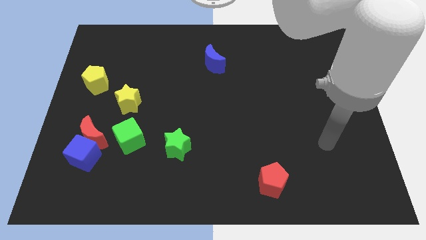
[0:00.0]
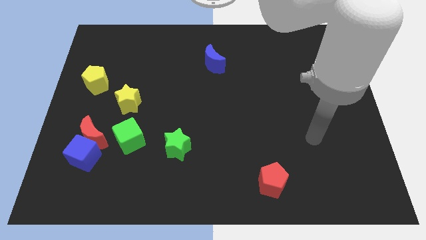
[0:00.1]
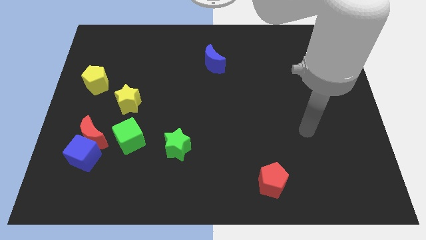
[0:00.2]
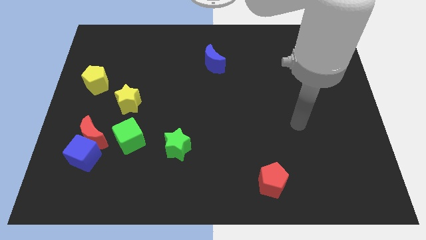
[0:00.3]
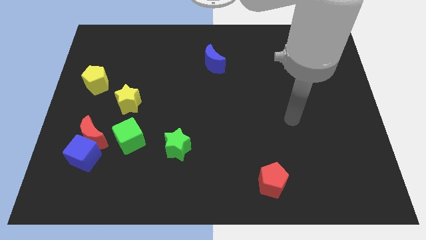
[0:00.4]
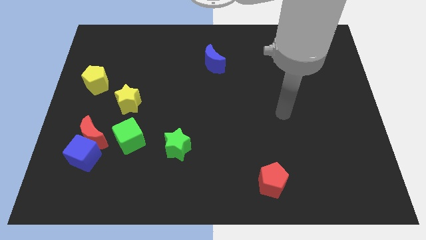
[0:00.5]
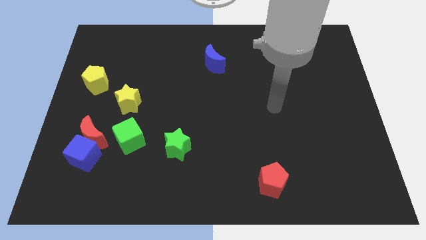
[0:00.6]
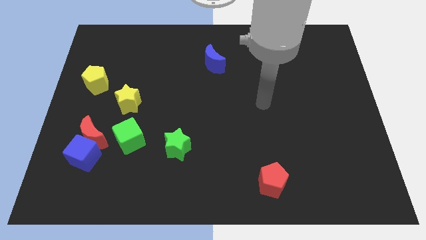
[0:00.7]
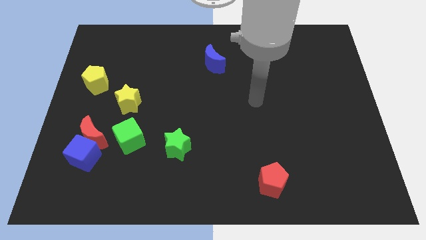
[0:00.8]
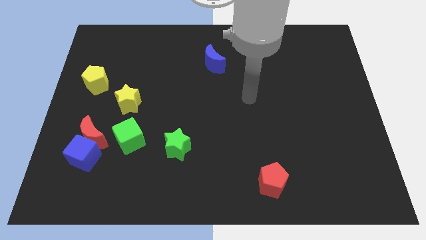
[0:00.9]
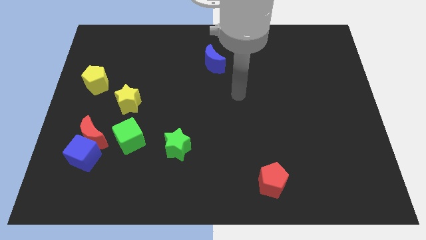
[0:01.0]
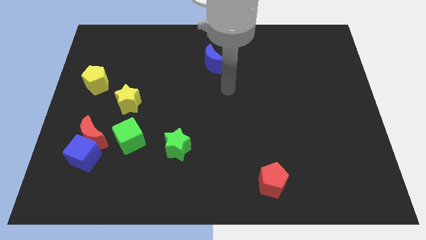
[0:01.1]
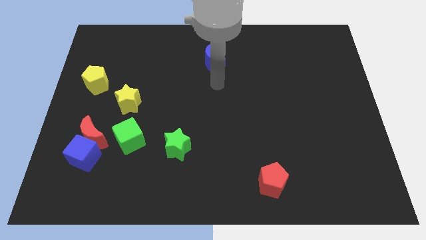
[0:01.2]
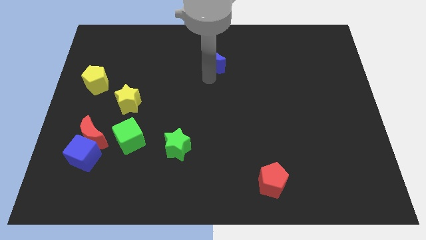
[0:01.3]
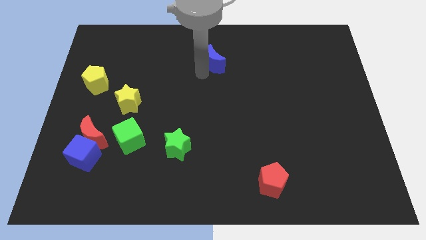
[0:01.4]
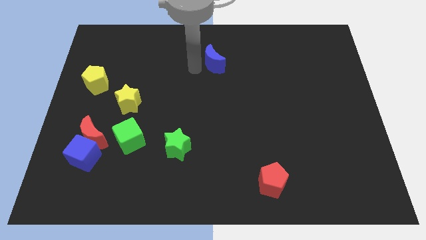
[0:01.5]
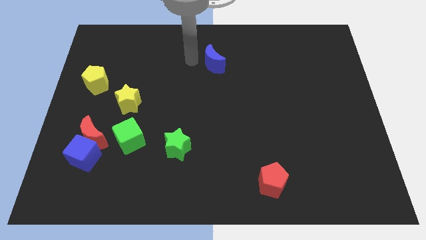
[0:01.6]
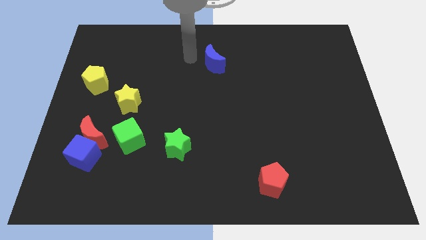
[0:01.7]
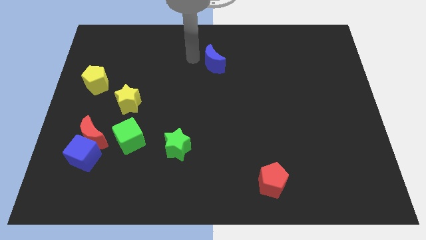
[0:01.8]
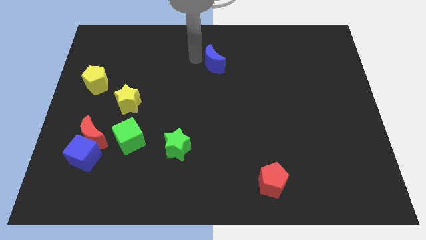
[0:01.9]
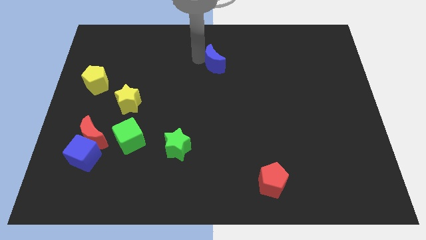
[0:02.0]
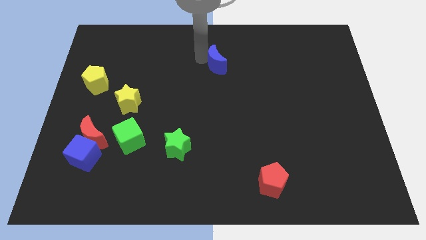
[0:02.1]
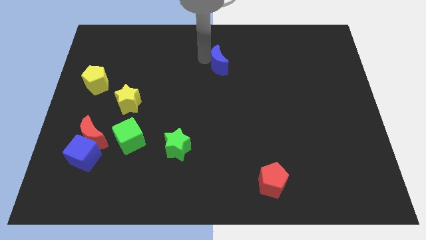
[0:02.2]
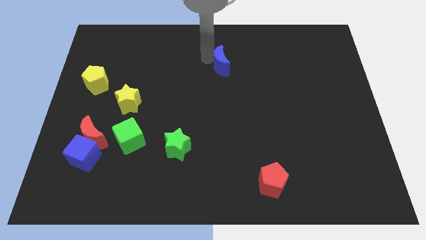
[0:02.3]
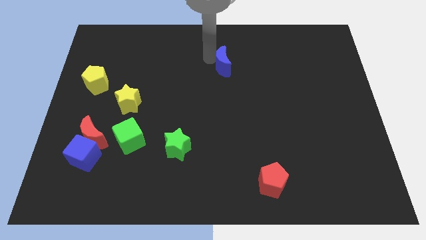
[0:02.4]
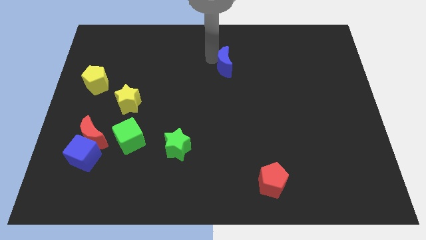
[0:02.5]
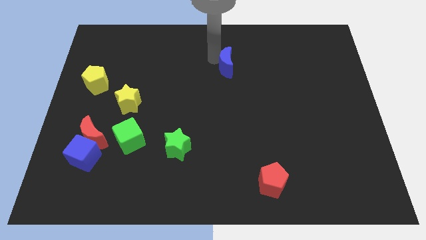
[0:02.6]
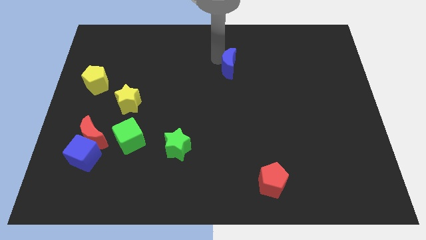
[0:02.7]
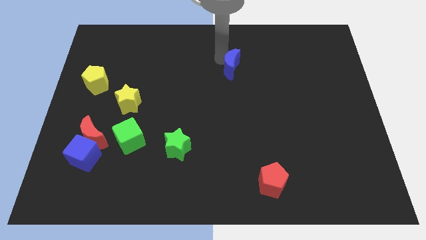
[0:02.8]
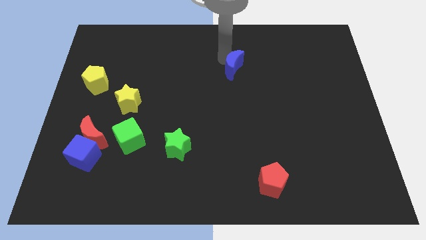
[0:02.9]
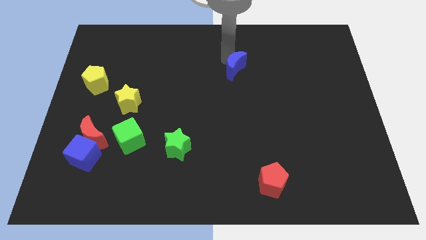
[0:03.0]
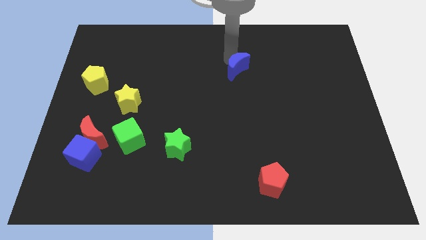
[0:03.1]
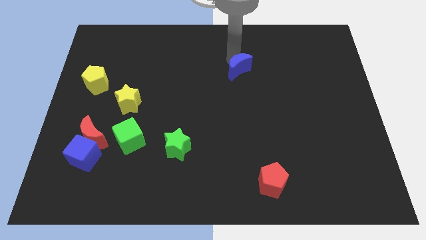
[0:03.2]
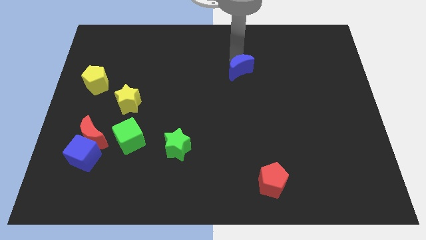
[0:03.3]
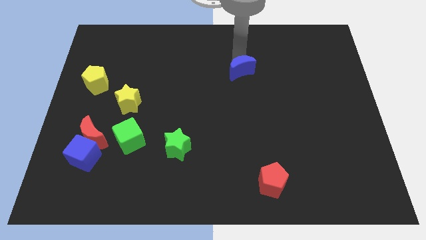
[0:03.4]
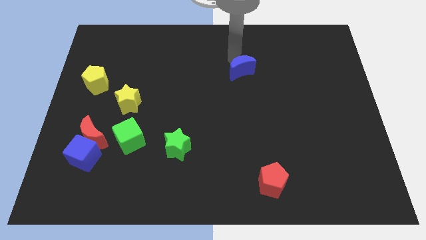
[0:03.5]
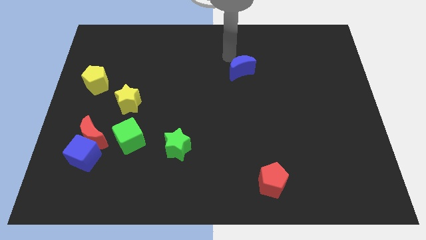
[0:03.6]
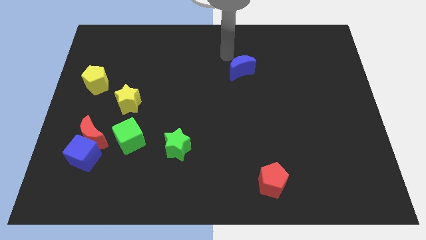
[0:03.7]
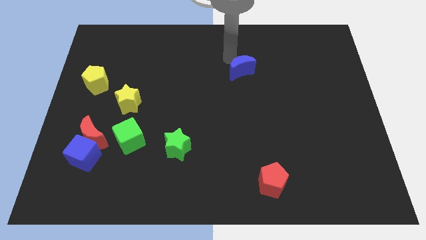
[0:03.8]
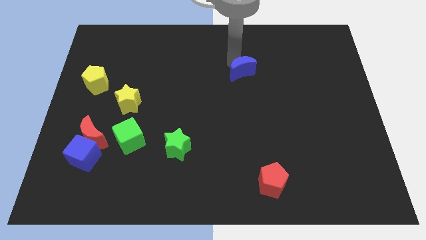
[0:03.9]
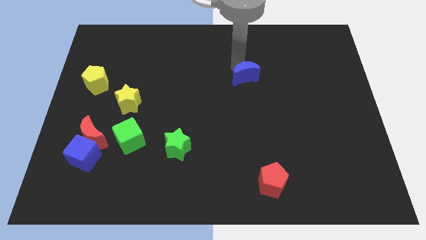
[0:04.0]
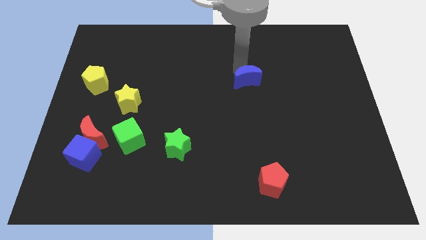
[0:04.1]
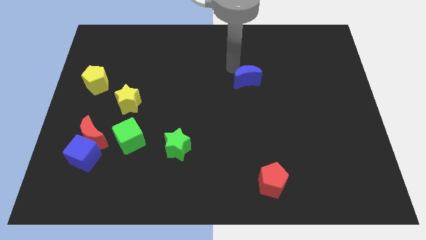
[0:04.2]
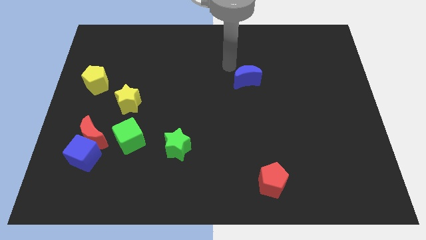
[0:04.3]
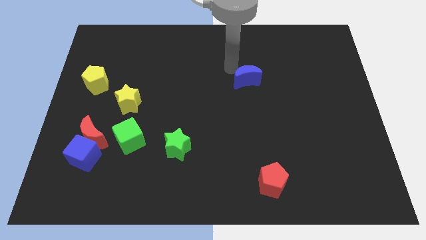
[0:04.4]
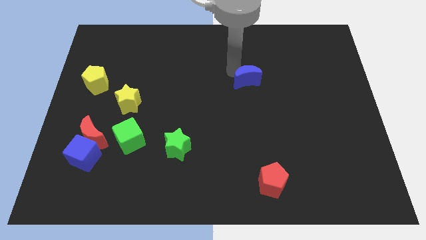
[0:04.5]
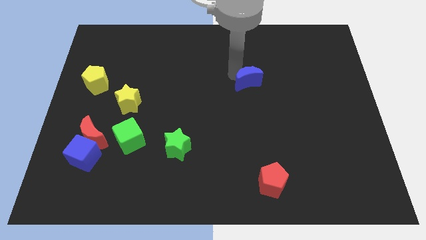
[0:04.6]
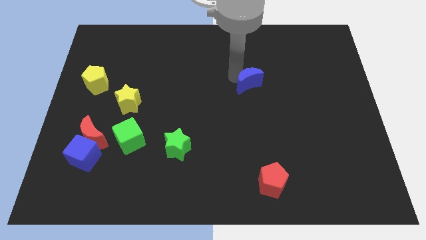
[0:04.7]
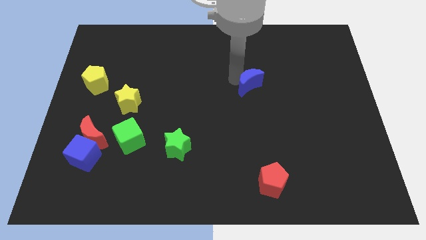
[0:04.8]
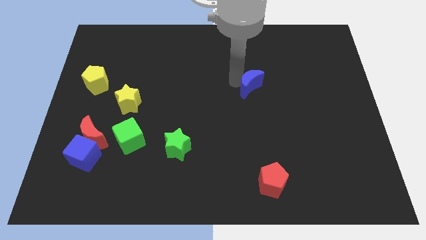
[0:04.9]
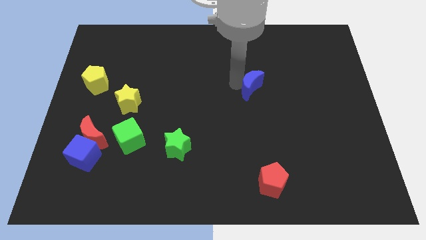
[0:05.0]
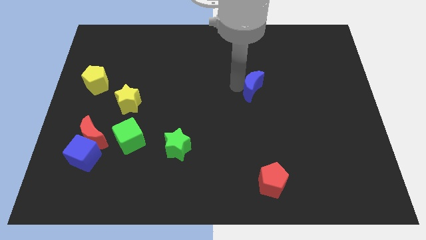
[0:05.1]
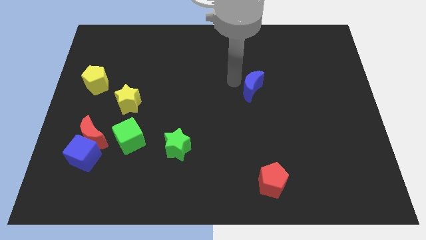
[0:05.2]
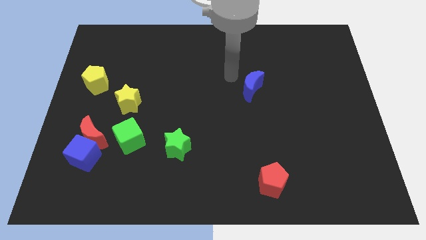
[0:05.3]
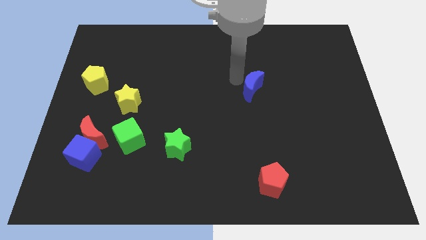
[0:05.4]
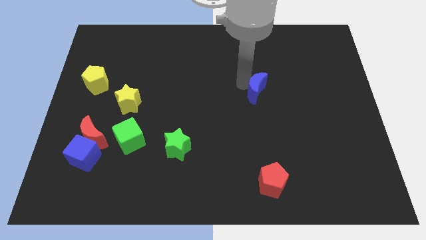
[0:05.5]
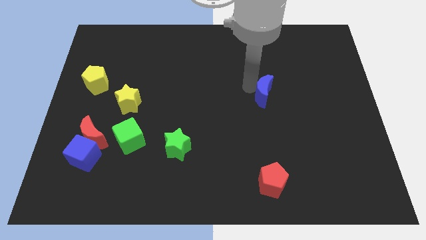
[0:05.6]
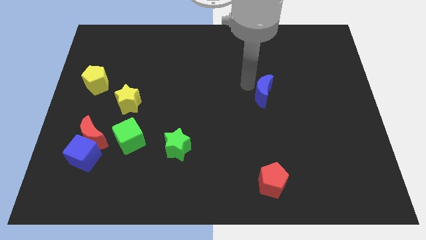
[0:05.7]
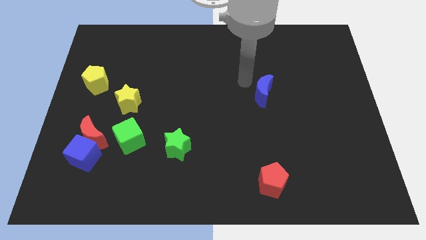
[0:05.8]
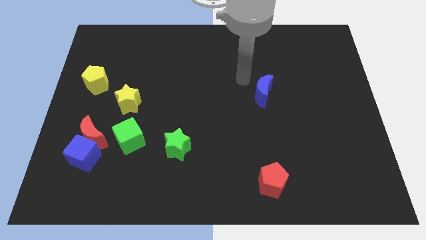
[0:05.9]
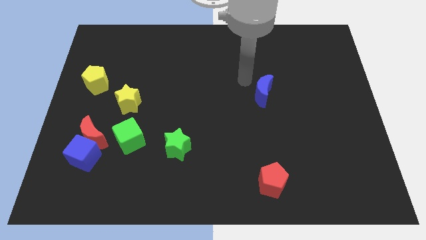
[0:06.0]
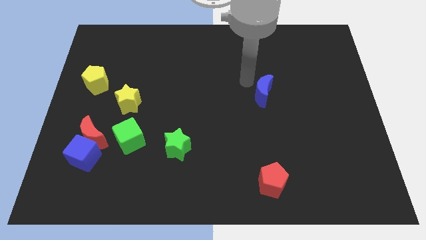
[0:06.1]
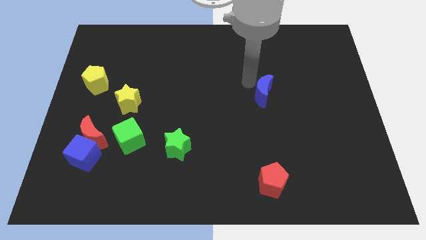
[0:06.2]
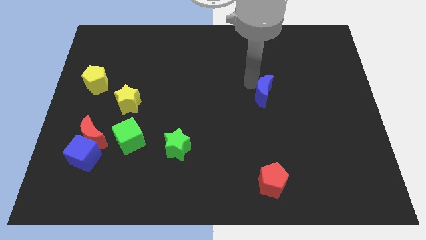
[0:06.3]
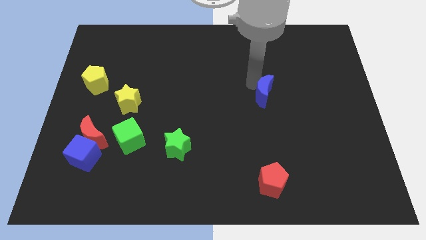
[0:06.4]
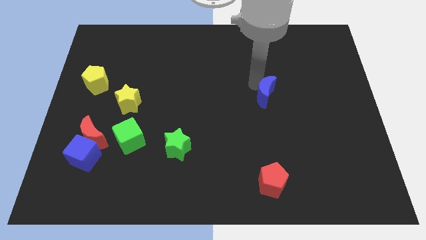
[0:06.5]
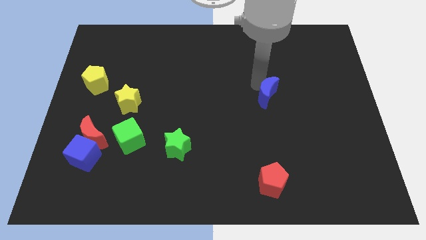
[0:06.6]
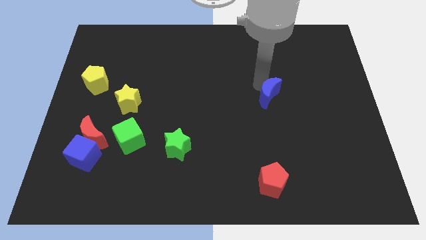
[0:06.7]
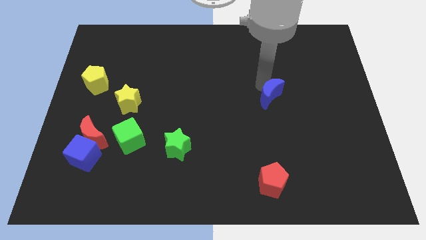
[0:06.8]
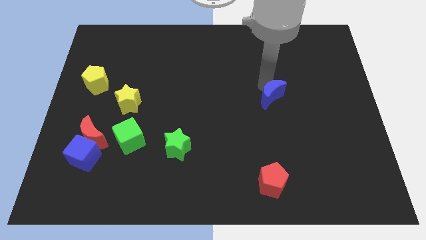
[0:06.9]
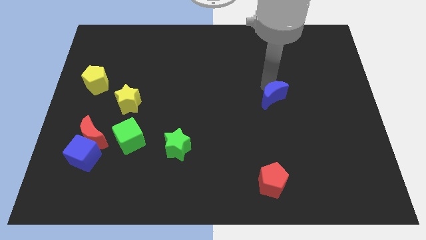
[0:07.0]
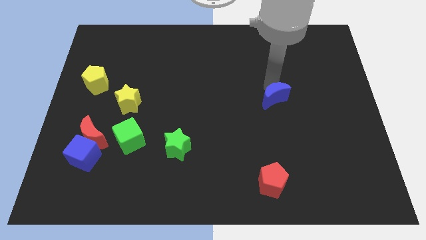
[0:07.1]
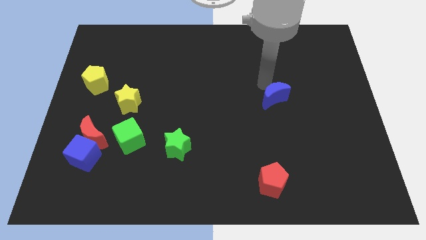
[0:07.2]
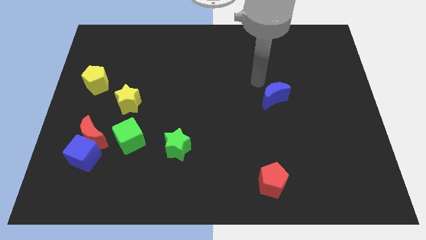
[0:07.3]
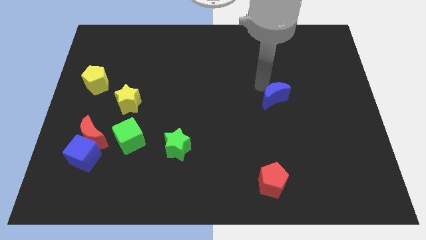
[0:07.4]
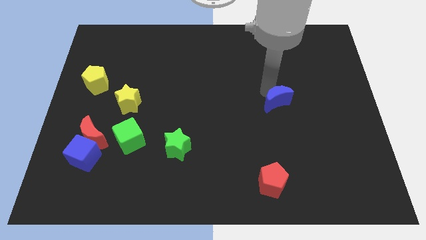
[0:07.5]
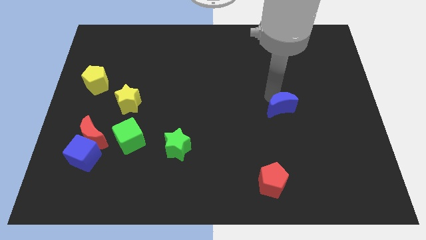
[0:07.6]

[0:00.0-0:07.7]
slide the blue moon downwards and right

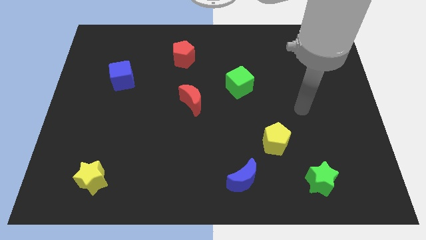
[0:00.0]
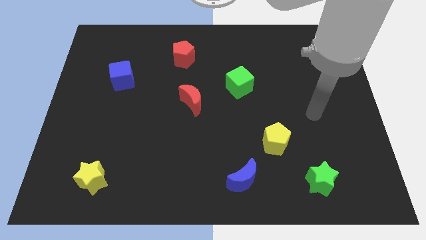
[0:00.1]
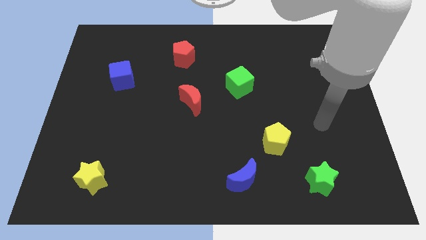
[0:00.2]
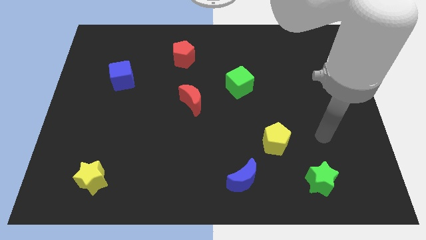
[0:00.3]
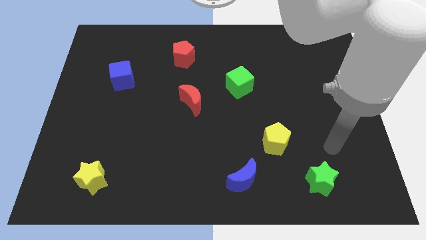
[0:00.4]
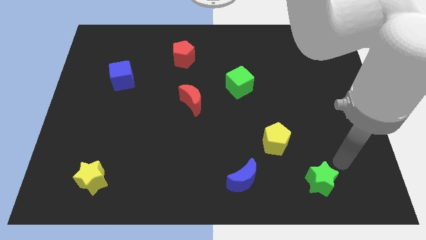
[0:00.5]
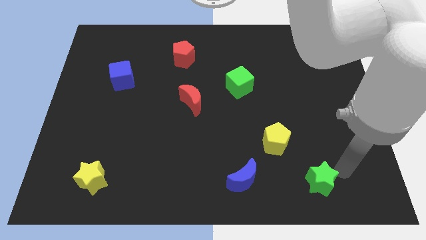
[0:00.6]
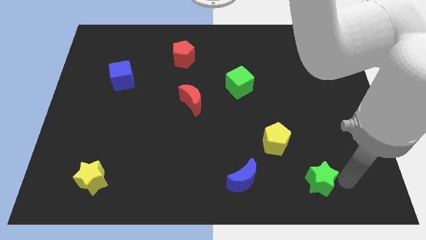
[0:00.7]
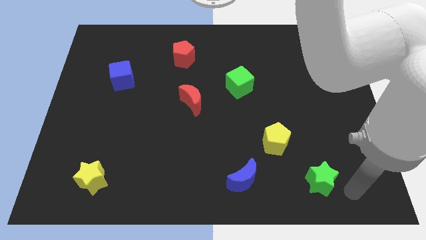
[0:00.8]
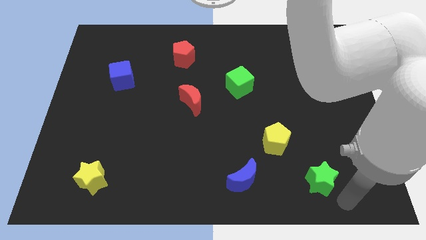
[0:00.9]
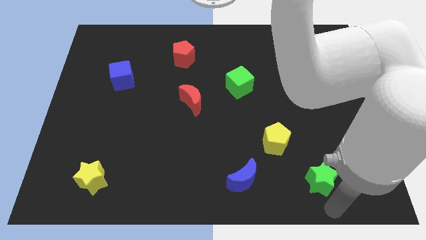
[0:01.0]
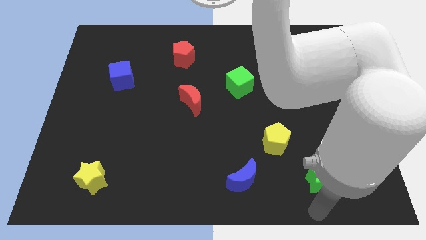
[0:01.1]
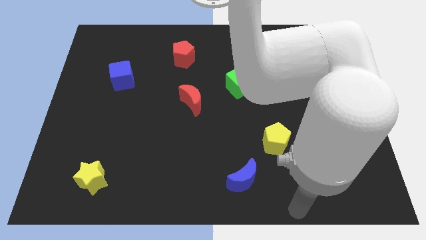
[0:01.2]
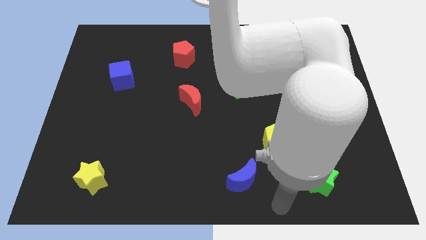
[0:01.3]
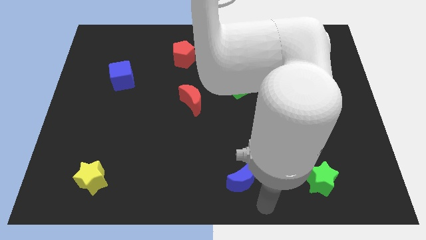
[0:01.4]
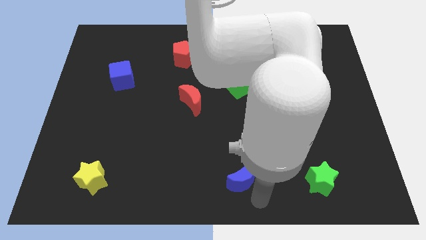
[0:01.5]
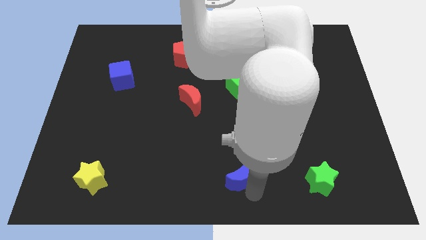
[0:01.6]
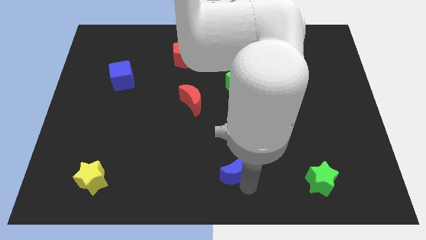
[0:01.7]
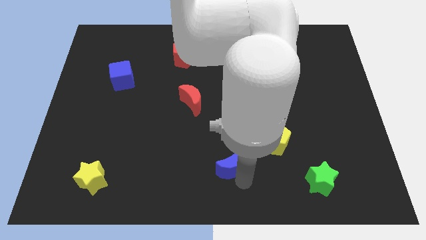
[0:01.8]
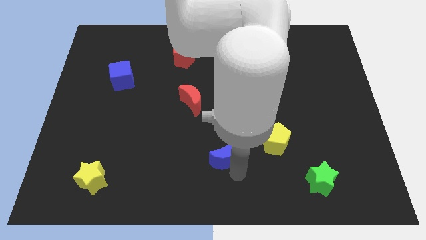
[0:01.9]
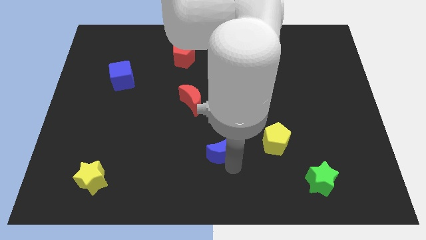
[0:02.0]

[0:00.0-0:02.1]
push the blue moon a bit diagonally up and to the left
